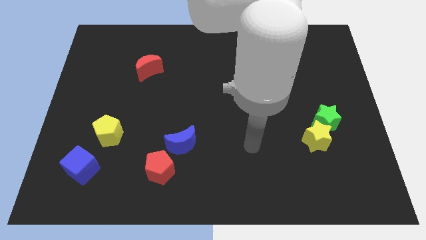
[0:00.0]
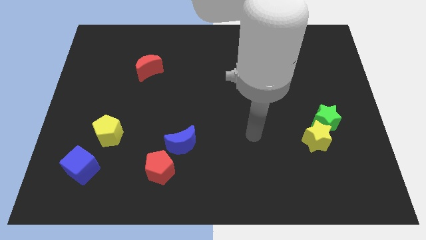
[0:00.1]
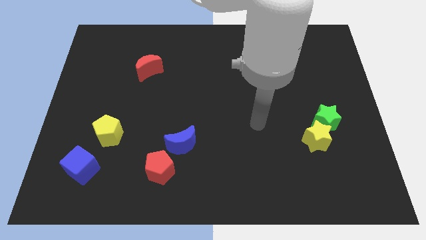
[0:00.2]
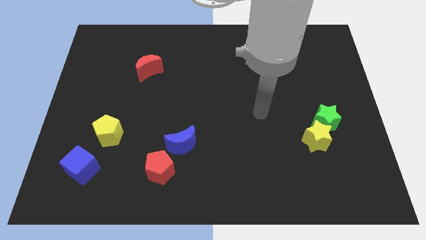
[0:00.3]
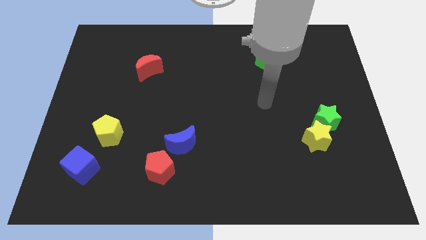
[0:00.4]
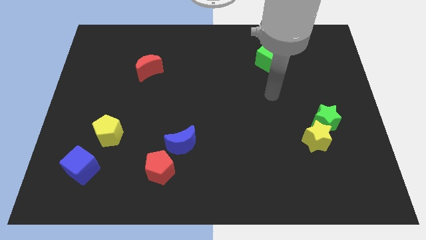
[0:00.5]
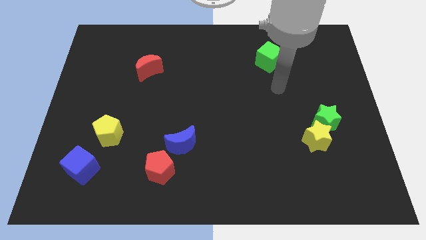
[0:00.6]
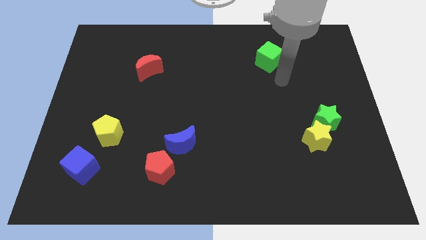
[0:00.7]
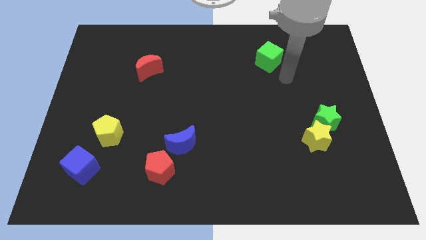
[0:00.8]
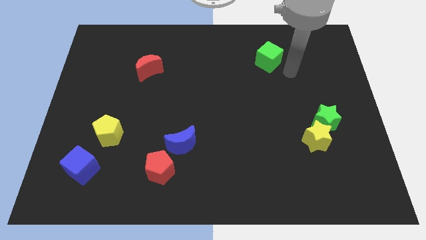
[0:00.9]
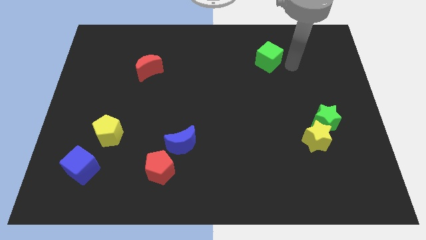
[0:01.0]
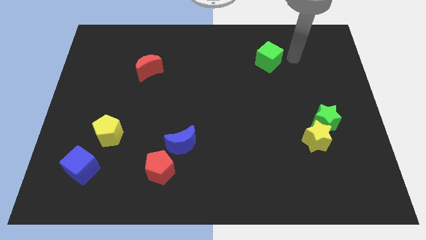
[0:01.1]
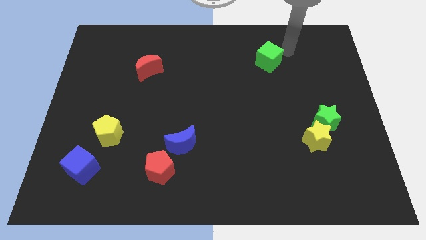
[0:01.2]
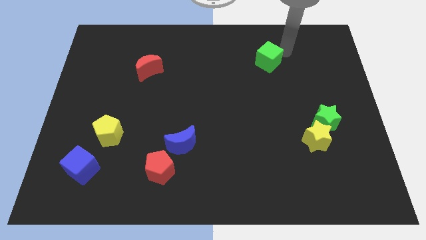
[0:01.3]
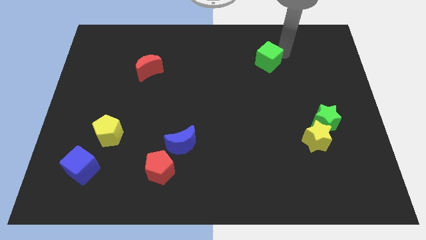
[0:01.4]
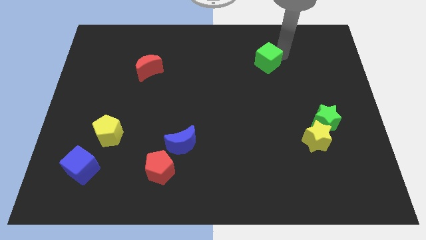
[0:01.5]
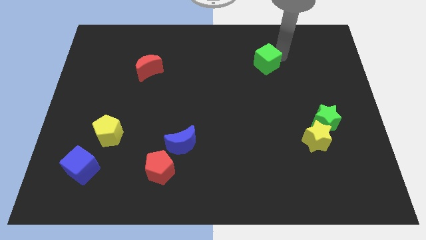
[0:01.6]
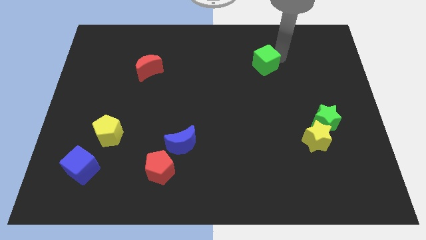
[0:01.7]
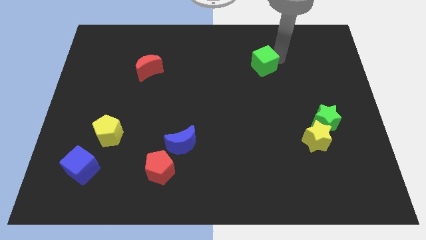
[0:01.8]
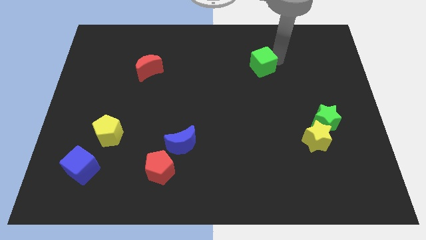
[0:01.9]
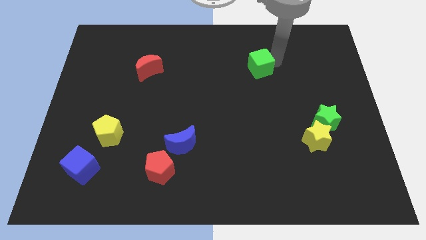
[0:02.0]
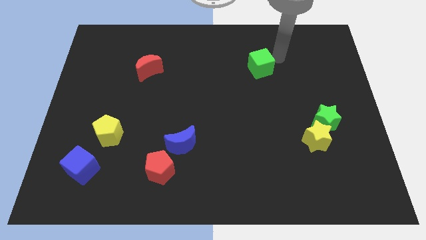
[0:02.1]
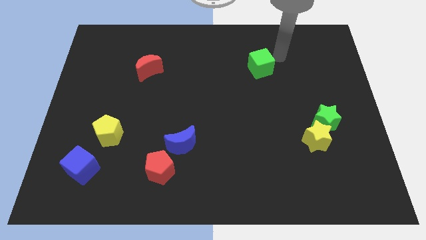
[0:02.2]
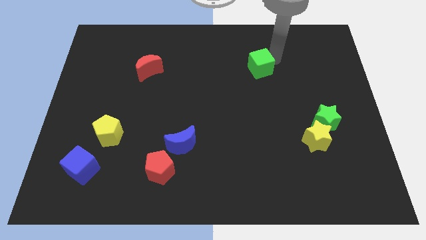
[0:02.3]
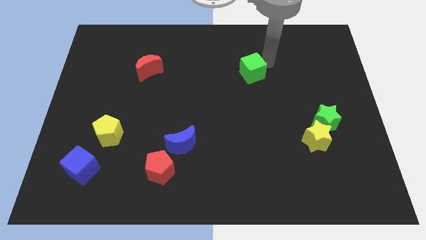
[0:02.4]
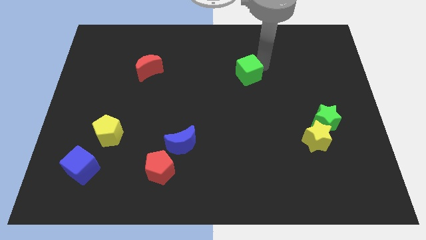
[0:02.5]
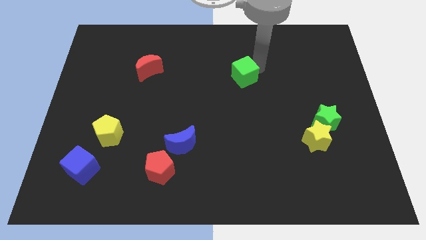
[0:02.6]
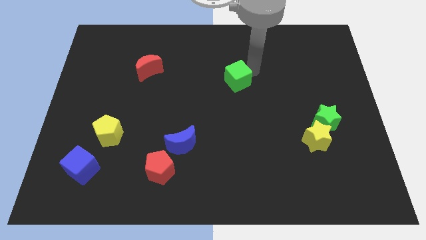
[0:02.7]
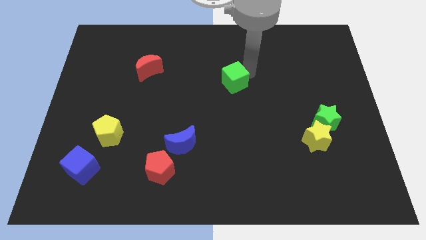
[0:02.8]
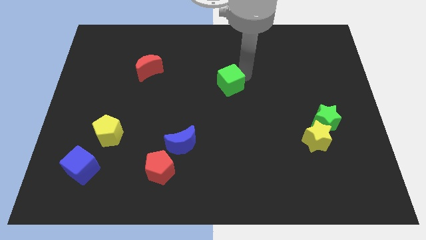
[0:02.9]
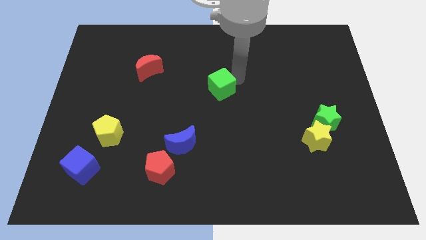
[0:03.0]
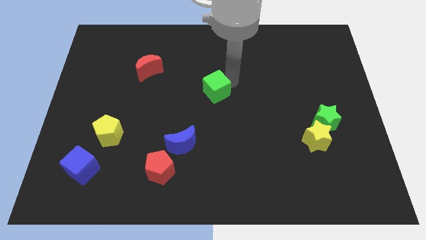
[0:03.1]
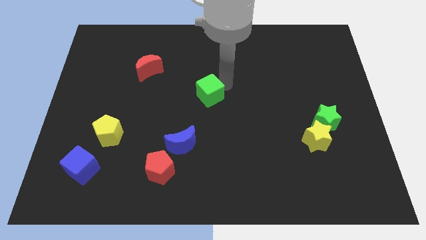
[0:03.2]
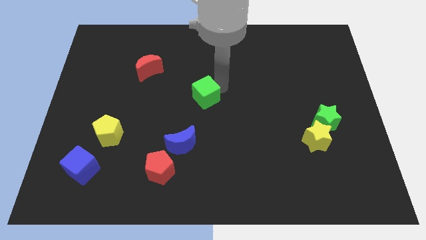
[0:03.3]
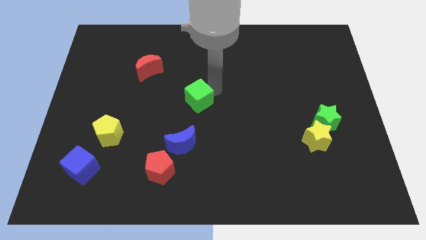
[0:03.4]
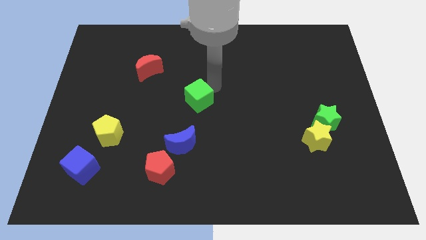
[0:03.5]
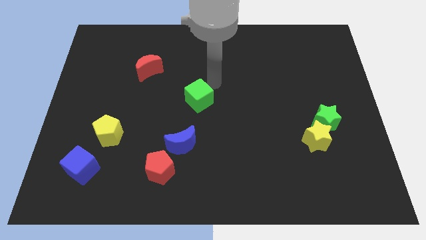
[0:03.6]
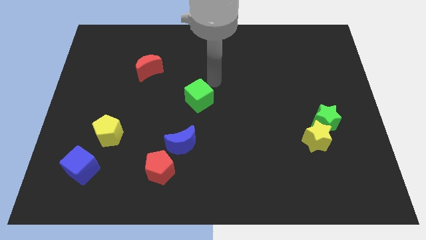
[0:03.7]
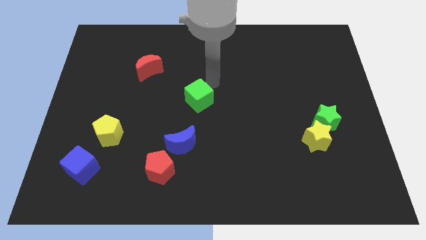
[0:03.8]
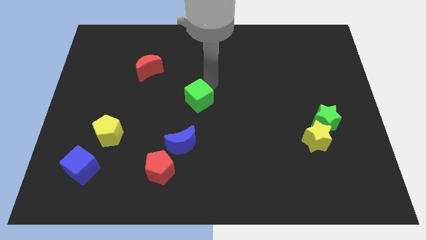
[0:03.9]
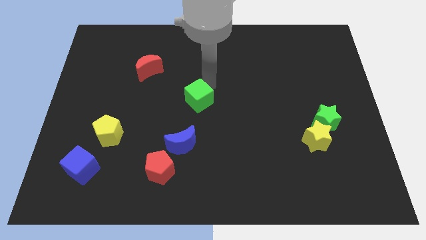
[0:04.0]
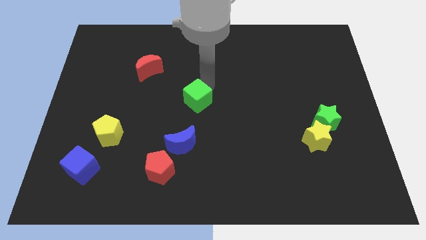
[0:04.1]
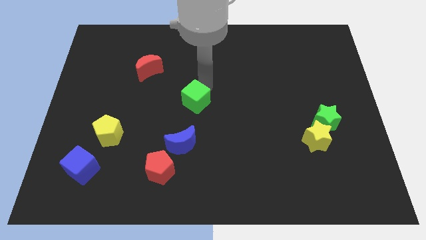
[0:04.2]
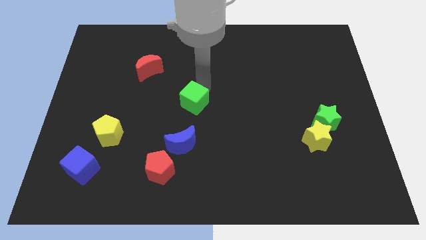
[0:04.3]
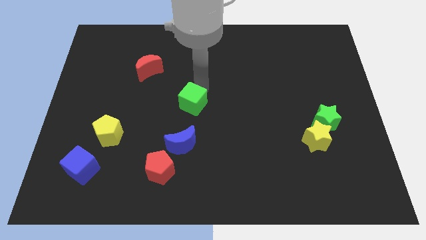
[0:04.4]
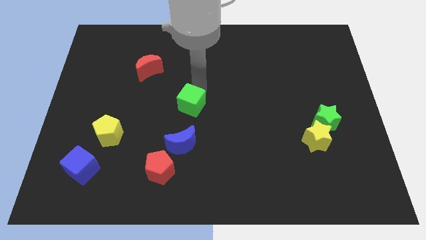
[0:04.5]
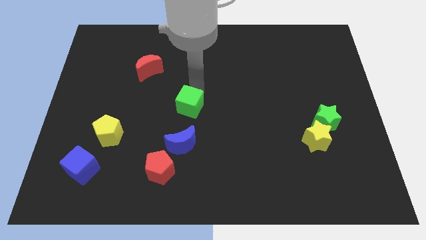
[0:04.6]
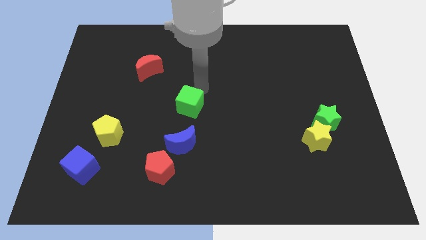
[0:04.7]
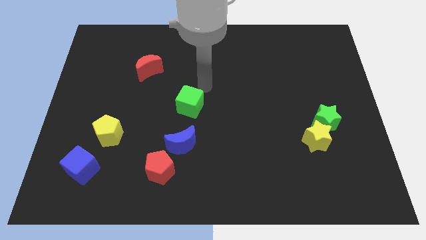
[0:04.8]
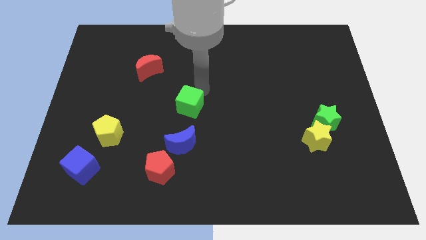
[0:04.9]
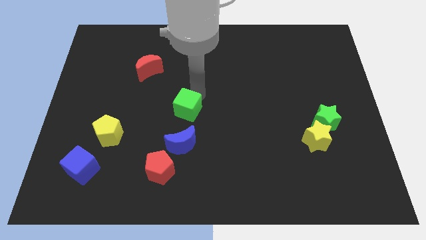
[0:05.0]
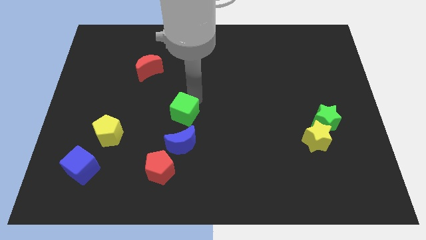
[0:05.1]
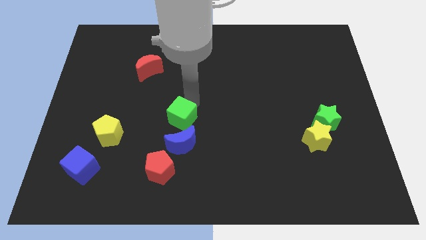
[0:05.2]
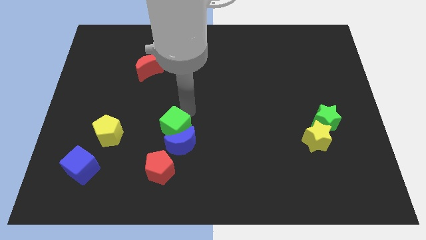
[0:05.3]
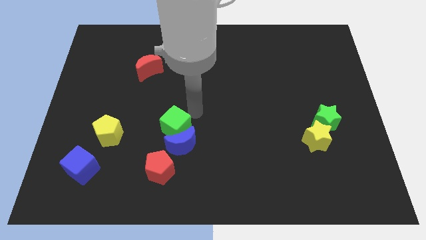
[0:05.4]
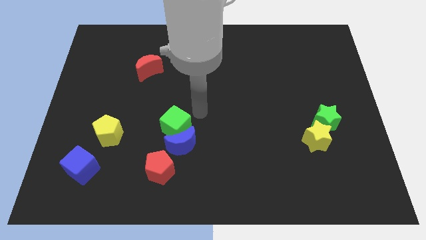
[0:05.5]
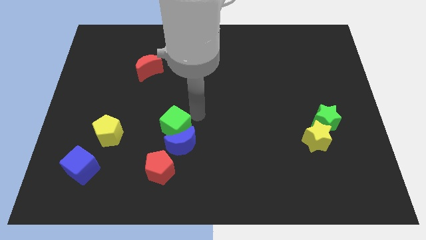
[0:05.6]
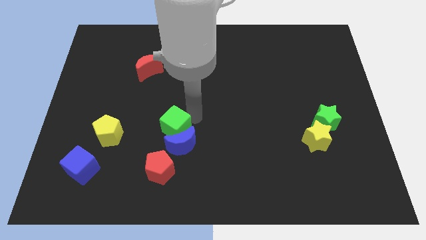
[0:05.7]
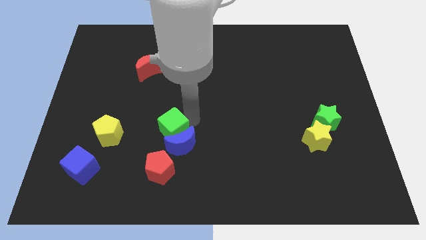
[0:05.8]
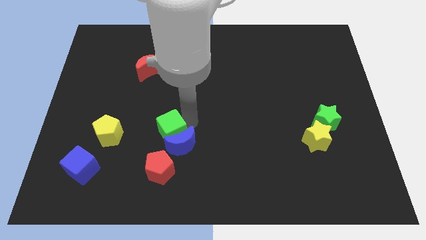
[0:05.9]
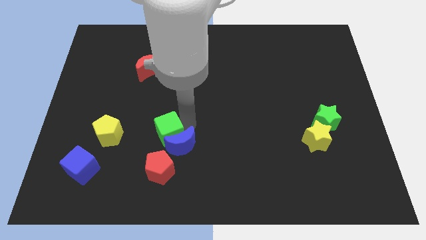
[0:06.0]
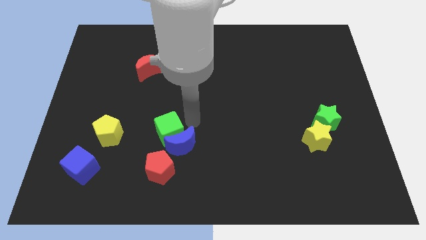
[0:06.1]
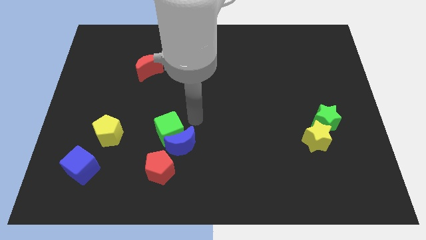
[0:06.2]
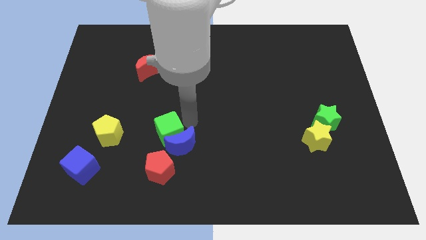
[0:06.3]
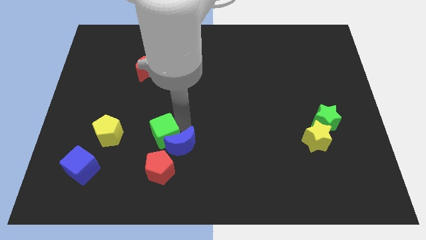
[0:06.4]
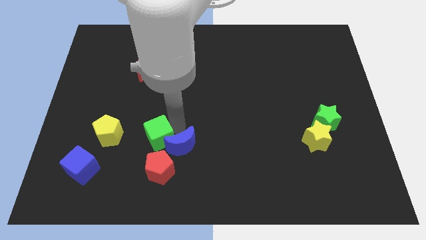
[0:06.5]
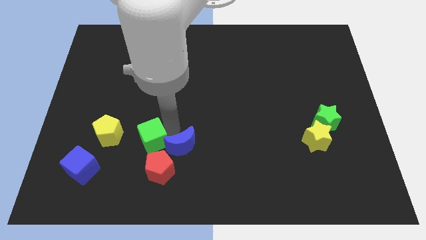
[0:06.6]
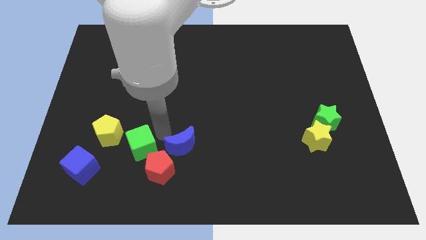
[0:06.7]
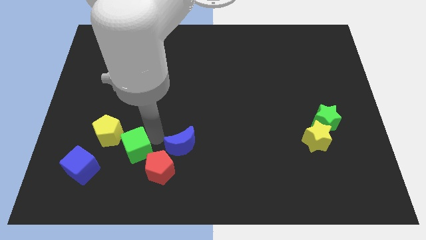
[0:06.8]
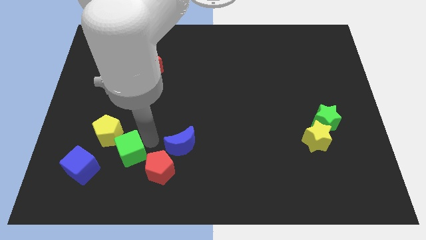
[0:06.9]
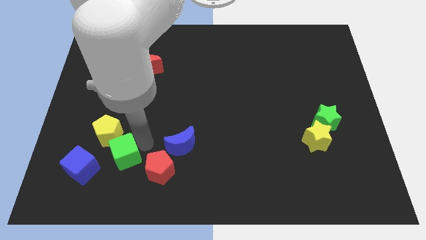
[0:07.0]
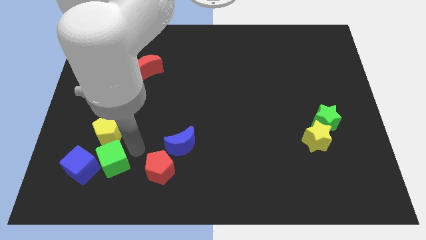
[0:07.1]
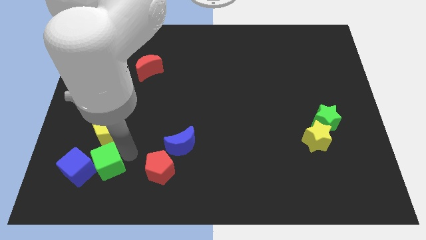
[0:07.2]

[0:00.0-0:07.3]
push the green cube close to the blue cube

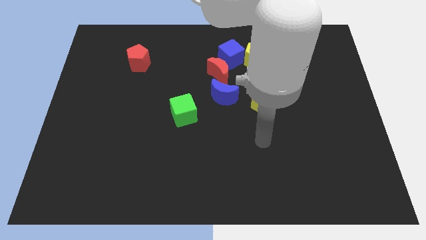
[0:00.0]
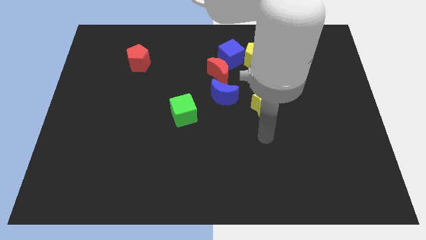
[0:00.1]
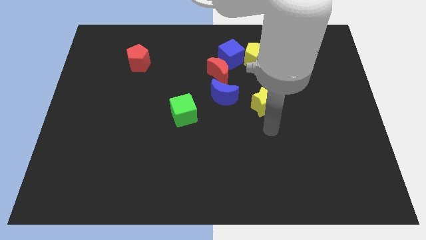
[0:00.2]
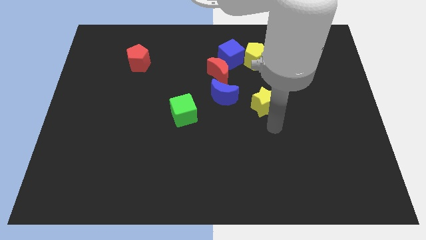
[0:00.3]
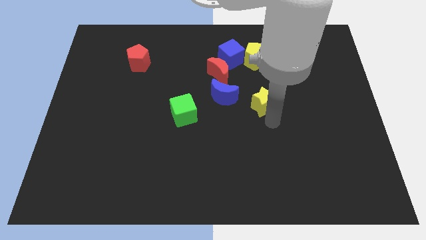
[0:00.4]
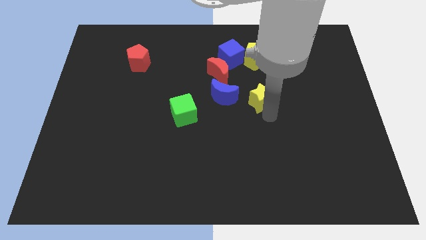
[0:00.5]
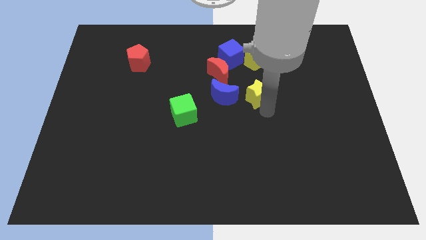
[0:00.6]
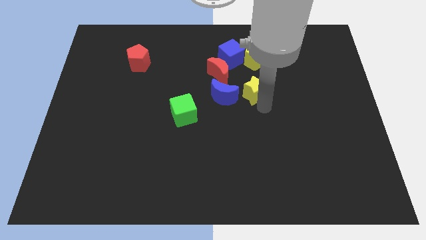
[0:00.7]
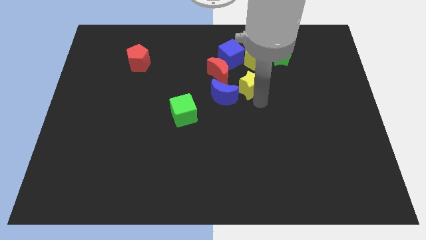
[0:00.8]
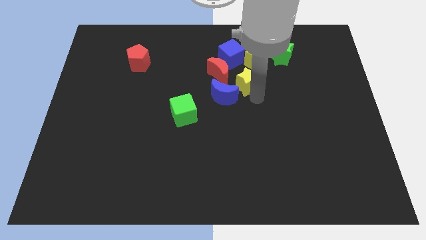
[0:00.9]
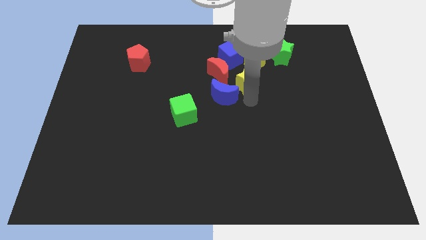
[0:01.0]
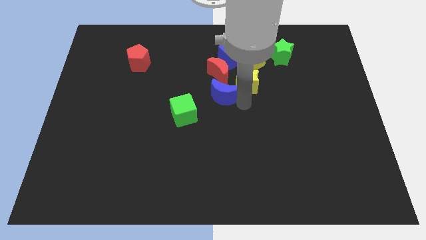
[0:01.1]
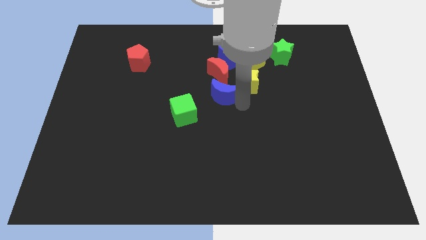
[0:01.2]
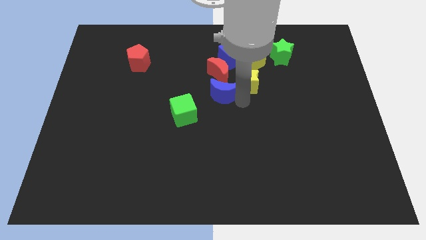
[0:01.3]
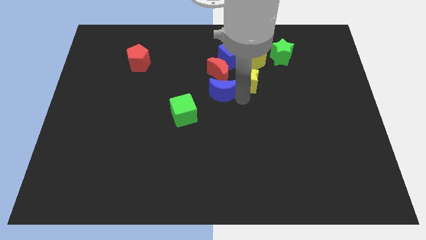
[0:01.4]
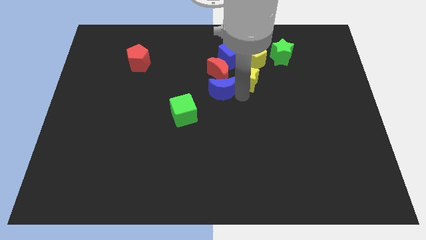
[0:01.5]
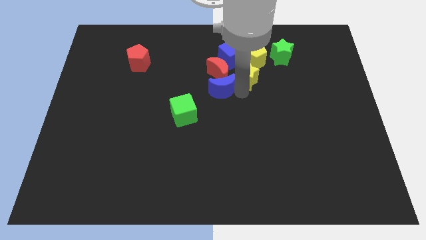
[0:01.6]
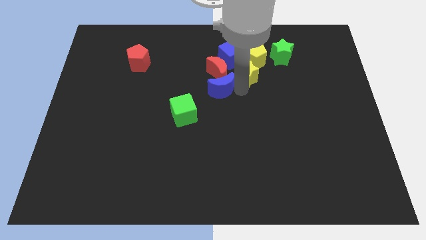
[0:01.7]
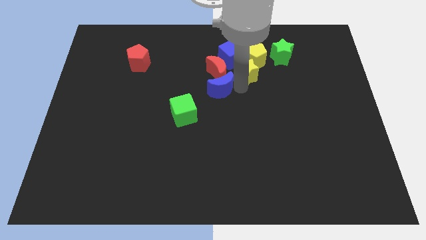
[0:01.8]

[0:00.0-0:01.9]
push the yellow star towards the yellow pentagon
